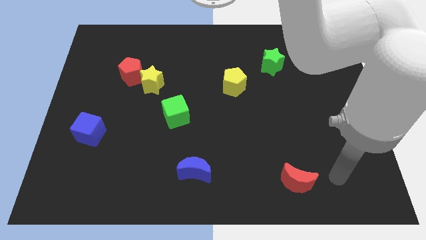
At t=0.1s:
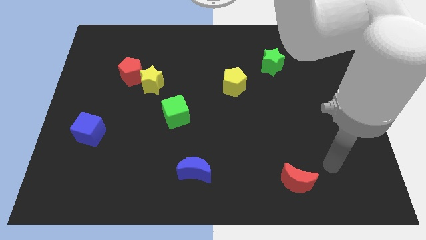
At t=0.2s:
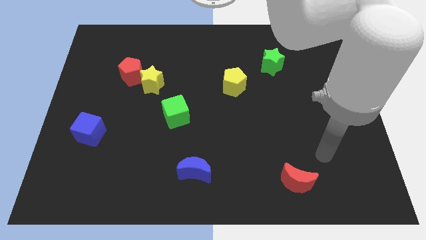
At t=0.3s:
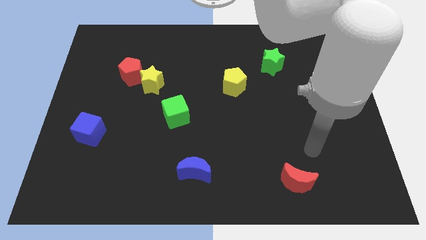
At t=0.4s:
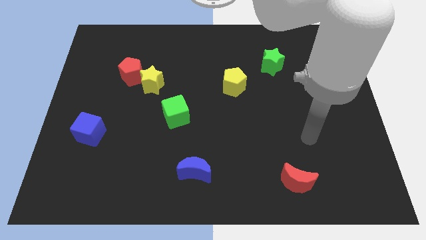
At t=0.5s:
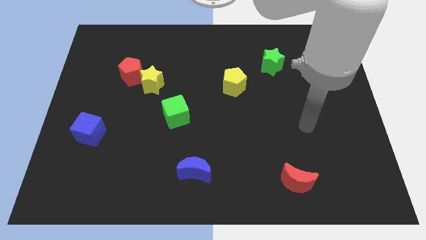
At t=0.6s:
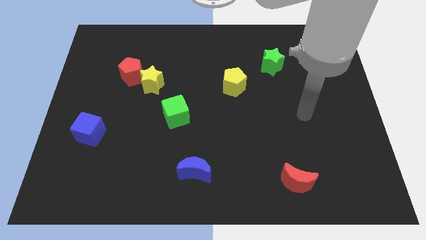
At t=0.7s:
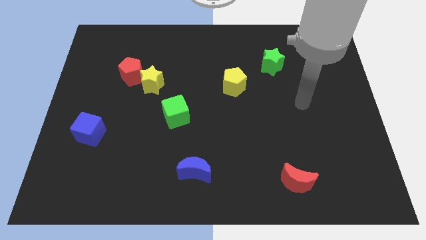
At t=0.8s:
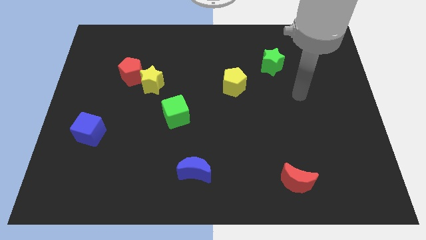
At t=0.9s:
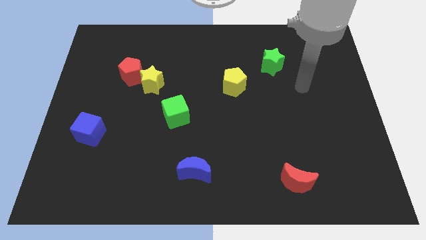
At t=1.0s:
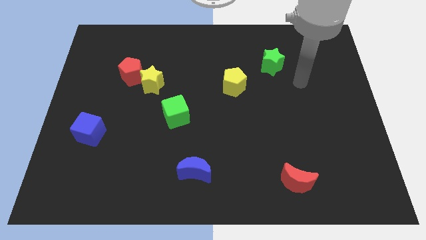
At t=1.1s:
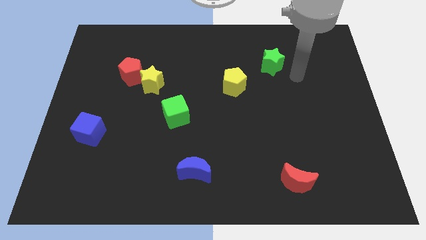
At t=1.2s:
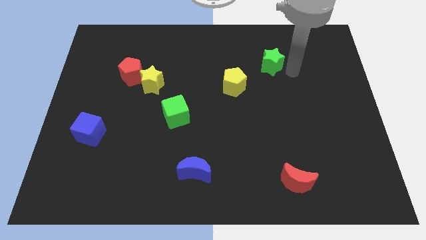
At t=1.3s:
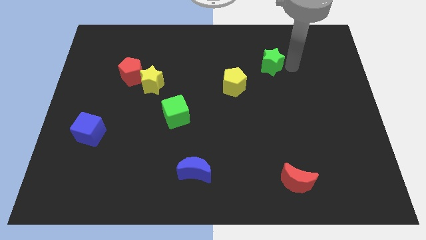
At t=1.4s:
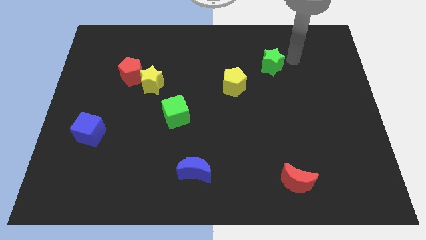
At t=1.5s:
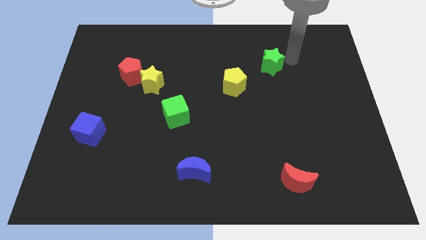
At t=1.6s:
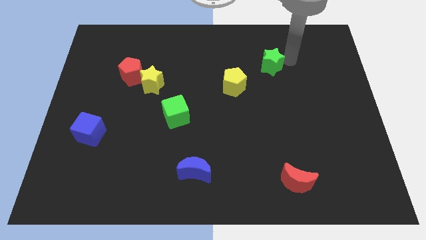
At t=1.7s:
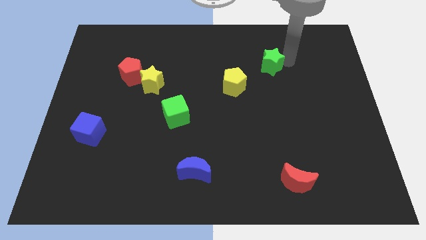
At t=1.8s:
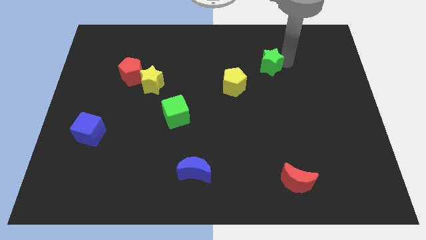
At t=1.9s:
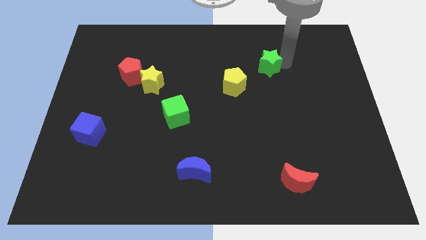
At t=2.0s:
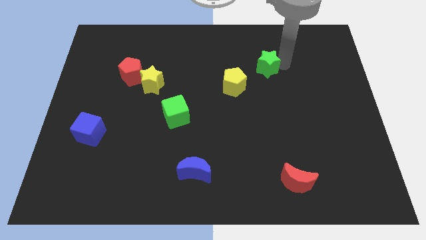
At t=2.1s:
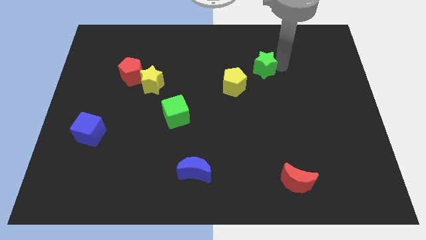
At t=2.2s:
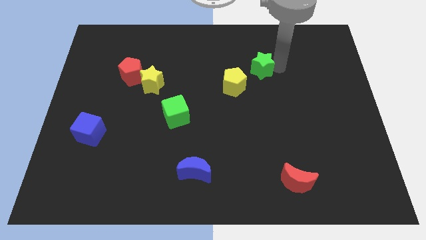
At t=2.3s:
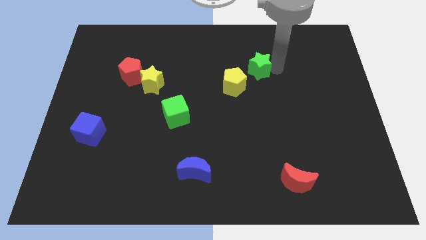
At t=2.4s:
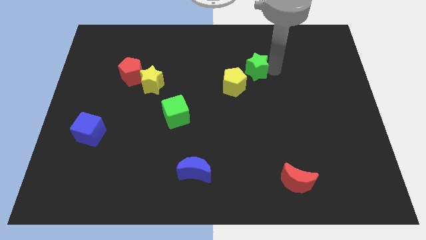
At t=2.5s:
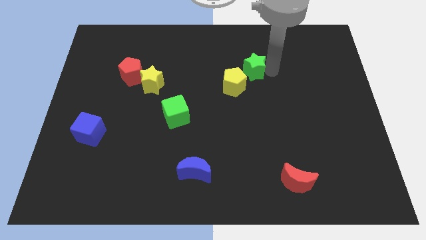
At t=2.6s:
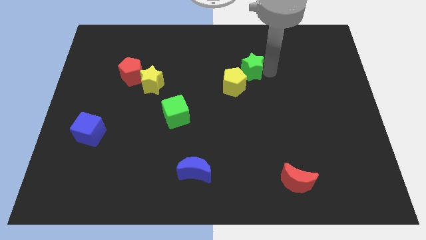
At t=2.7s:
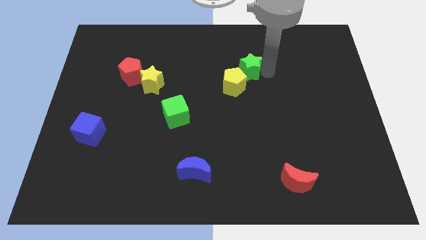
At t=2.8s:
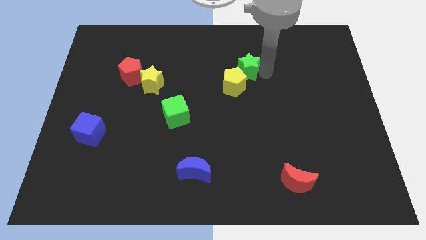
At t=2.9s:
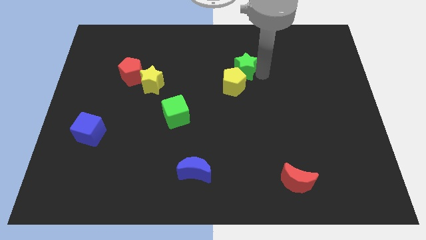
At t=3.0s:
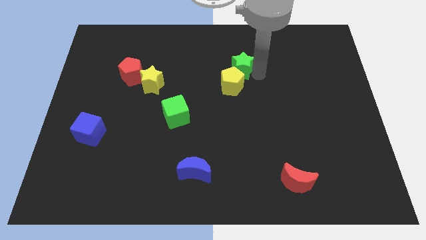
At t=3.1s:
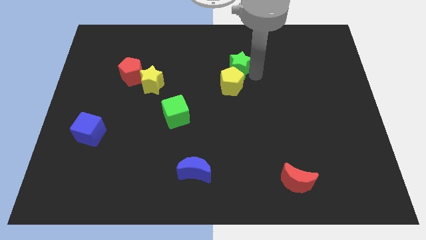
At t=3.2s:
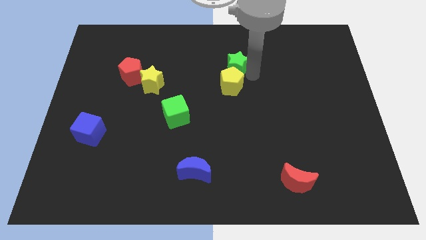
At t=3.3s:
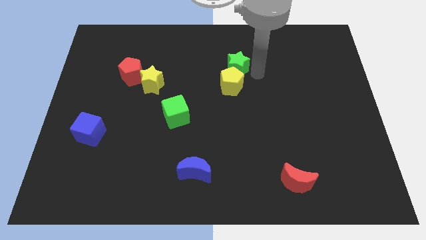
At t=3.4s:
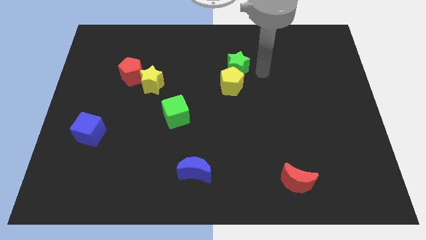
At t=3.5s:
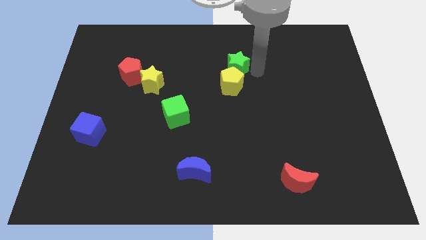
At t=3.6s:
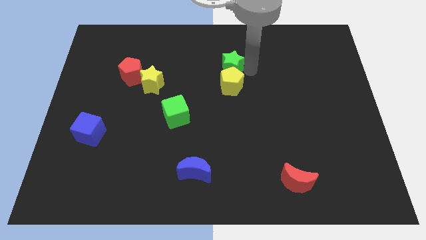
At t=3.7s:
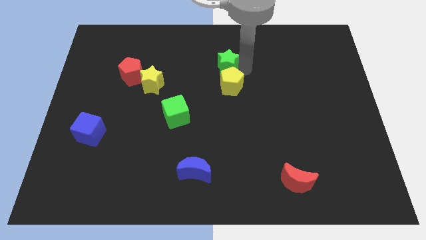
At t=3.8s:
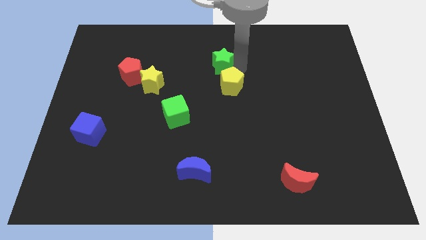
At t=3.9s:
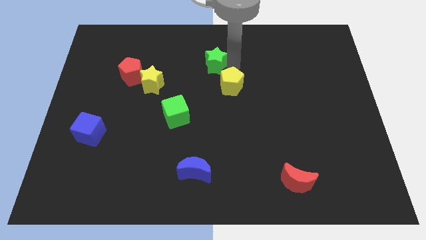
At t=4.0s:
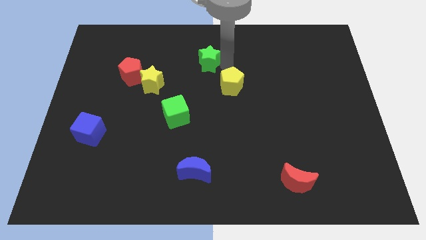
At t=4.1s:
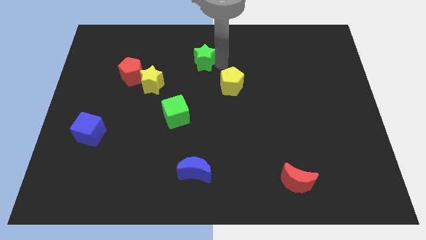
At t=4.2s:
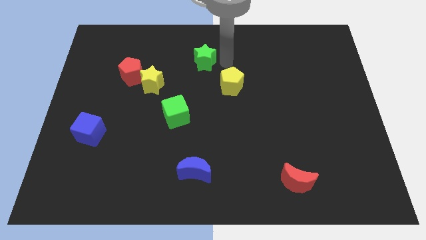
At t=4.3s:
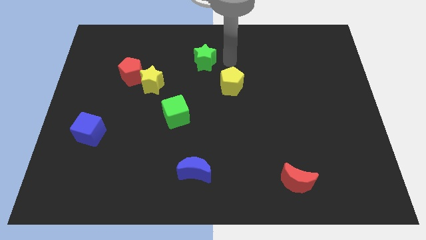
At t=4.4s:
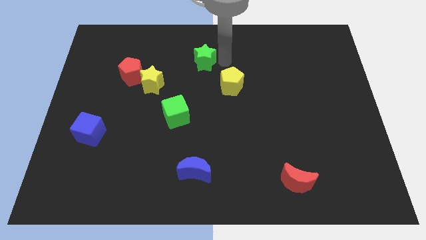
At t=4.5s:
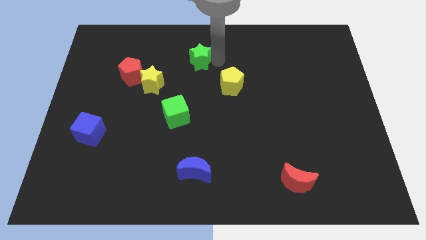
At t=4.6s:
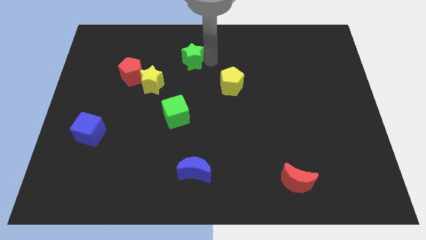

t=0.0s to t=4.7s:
push the green star to the left

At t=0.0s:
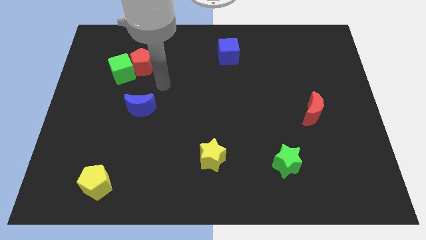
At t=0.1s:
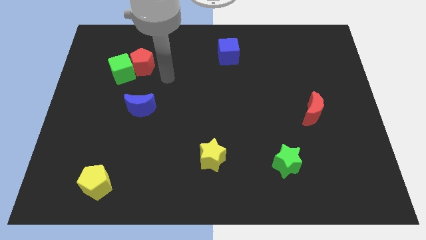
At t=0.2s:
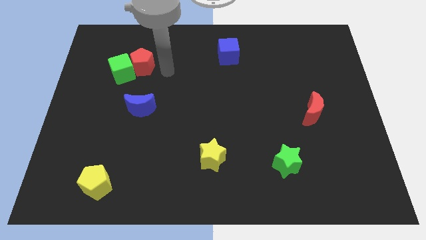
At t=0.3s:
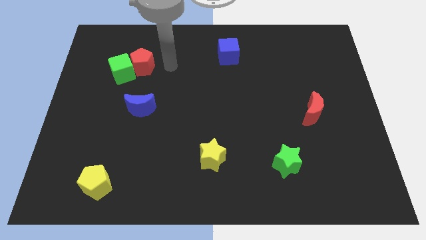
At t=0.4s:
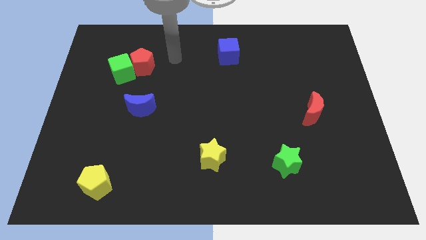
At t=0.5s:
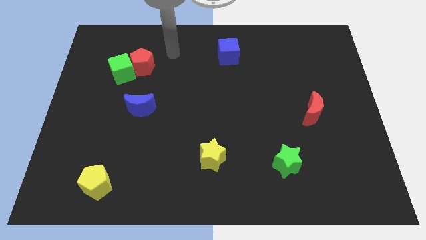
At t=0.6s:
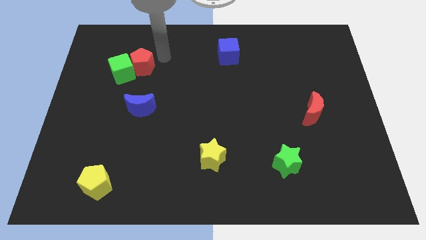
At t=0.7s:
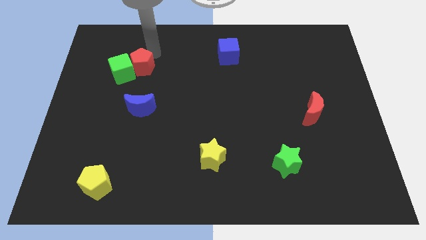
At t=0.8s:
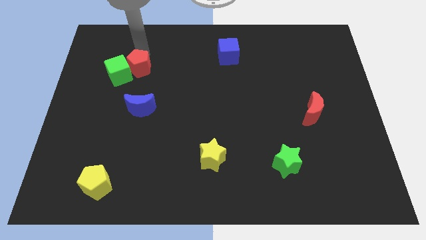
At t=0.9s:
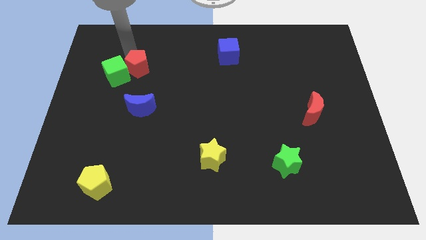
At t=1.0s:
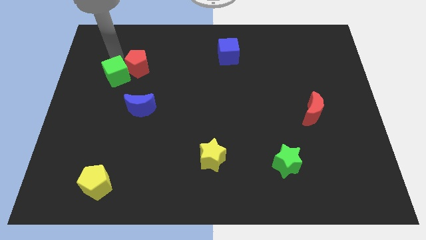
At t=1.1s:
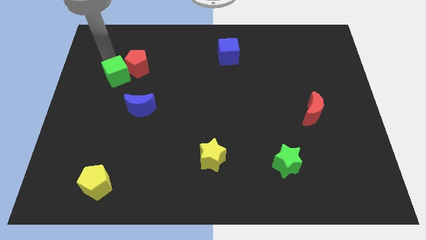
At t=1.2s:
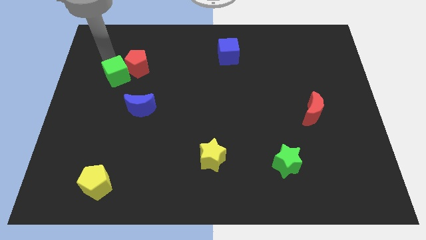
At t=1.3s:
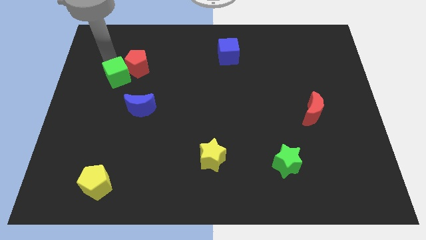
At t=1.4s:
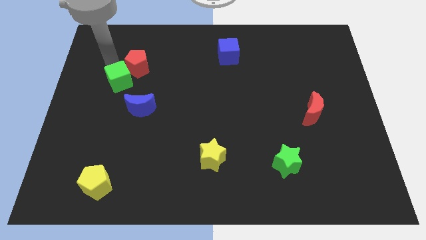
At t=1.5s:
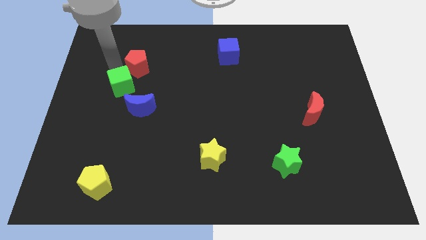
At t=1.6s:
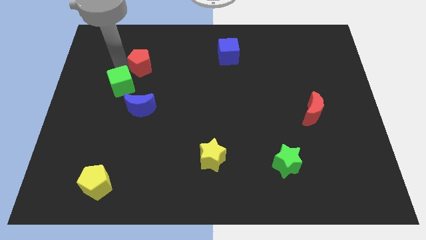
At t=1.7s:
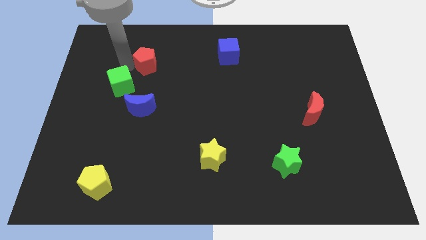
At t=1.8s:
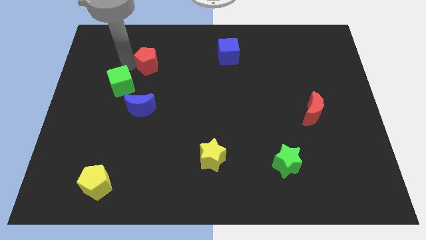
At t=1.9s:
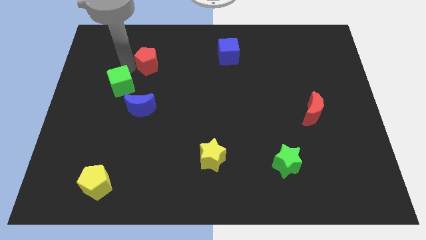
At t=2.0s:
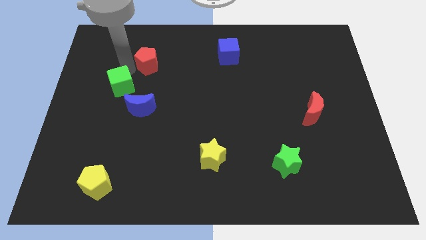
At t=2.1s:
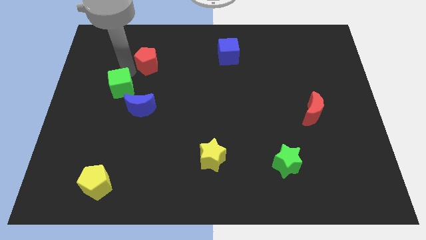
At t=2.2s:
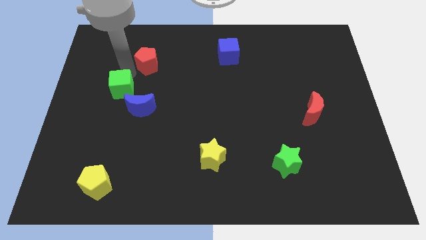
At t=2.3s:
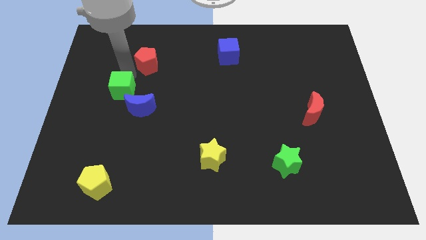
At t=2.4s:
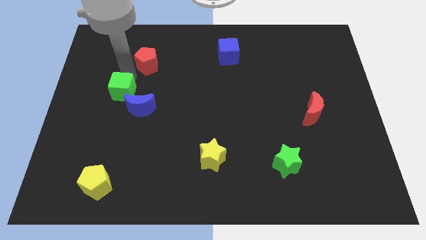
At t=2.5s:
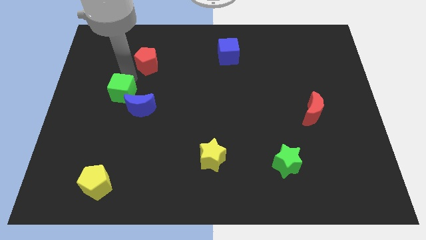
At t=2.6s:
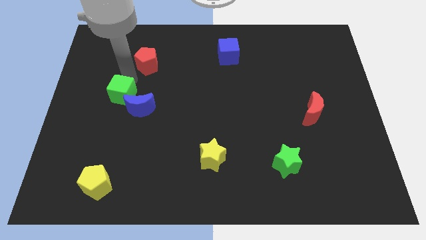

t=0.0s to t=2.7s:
move the green cube down a little

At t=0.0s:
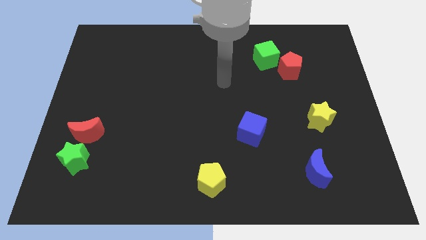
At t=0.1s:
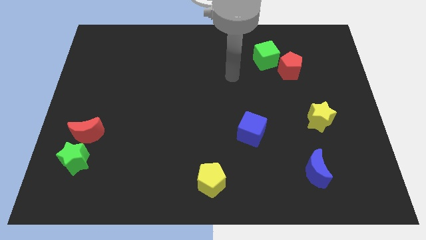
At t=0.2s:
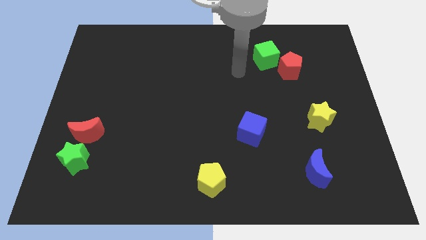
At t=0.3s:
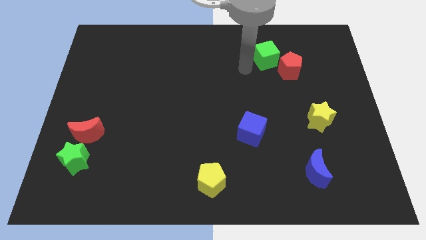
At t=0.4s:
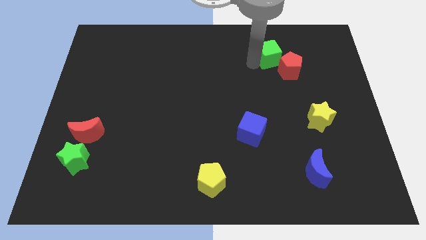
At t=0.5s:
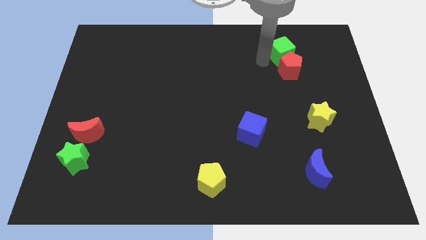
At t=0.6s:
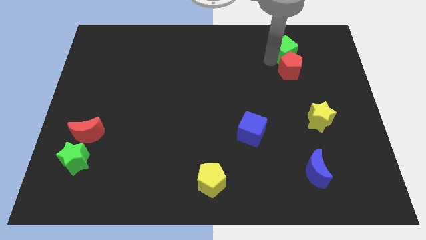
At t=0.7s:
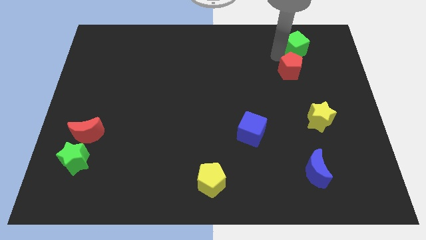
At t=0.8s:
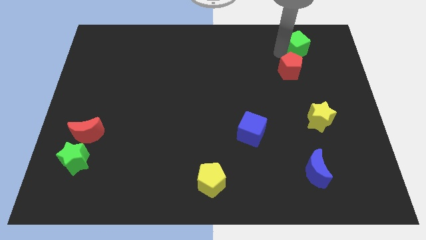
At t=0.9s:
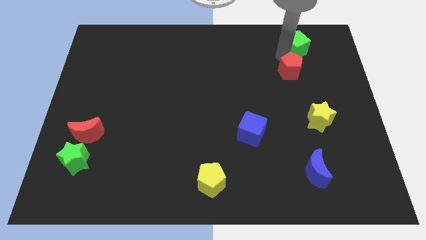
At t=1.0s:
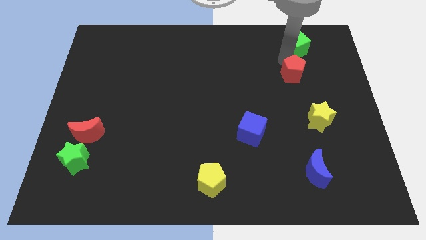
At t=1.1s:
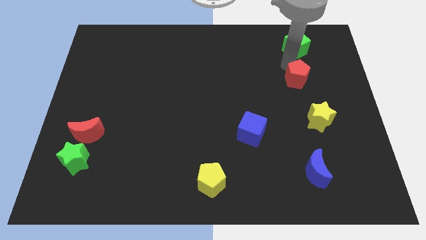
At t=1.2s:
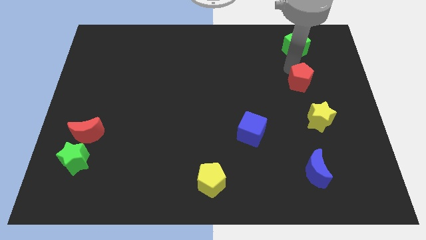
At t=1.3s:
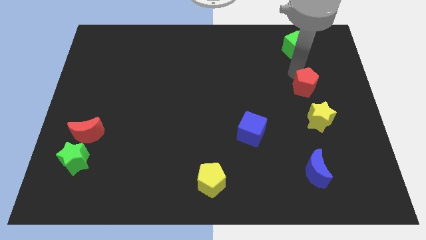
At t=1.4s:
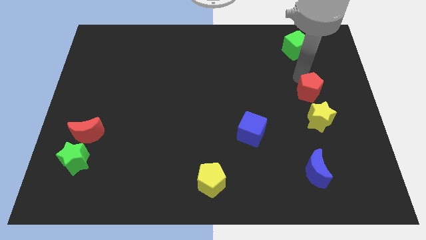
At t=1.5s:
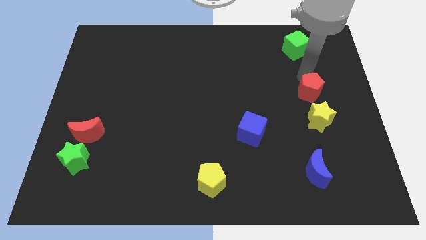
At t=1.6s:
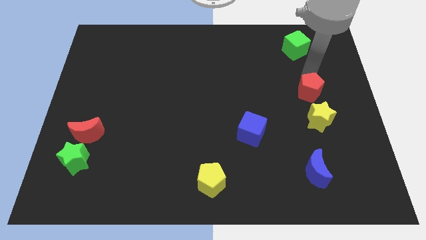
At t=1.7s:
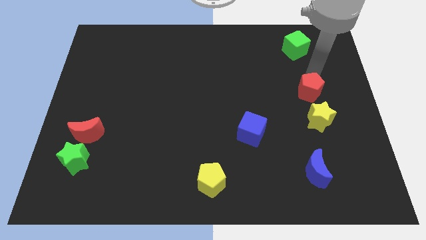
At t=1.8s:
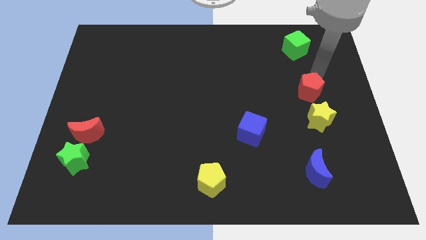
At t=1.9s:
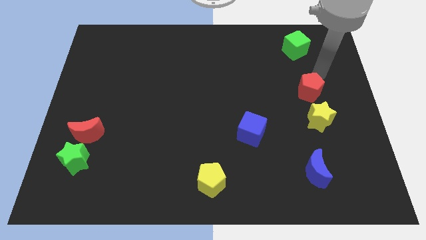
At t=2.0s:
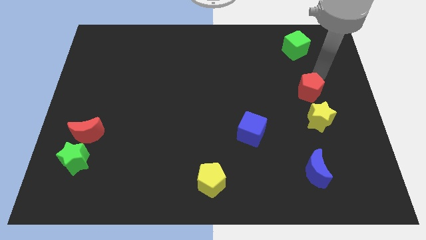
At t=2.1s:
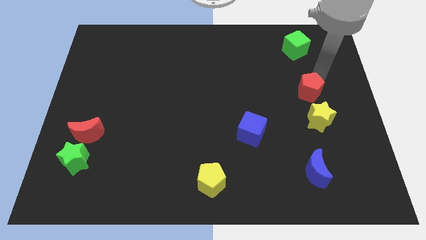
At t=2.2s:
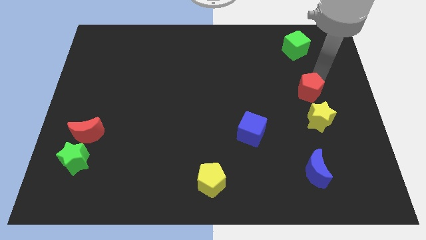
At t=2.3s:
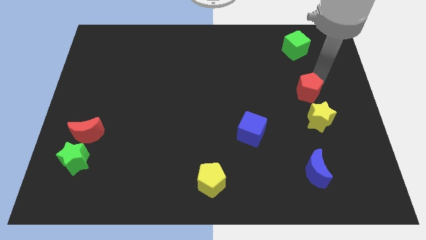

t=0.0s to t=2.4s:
slightly slide the red pentagon downwards
